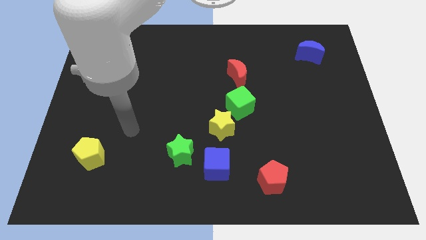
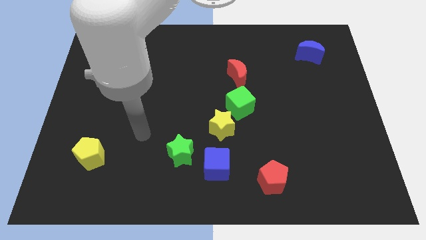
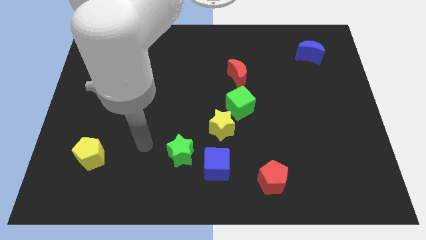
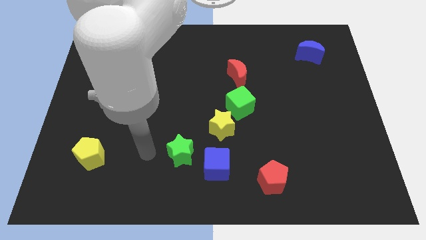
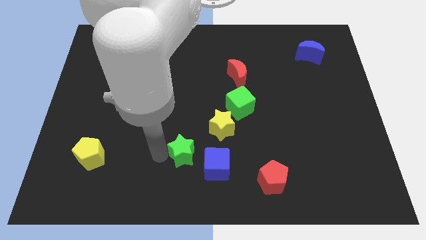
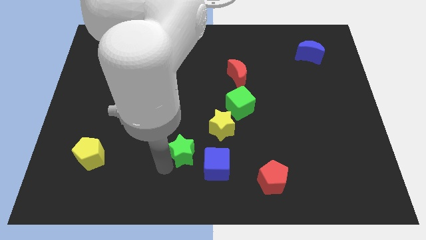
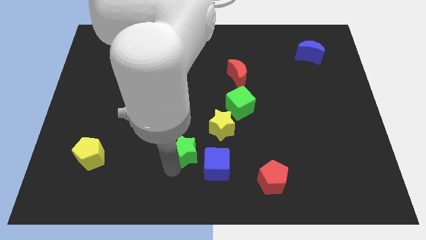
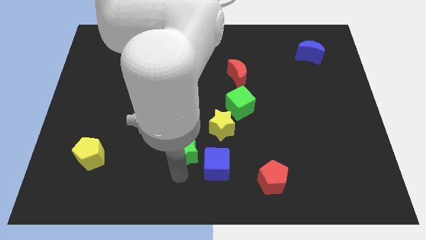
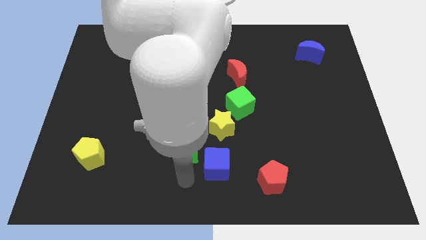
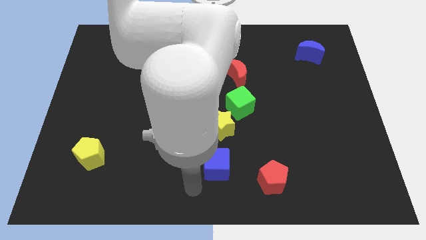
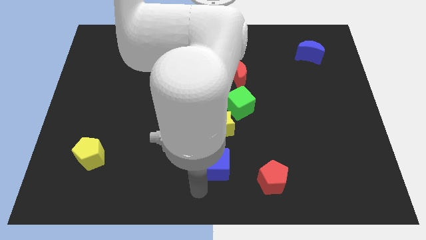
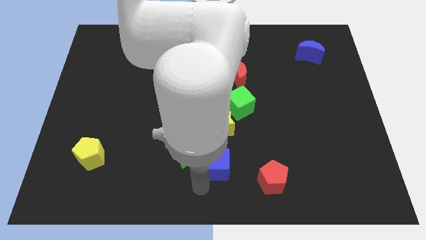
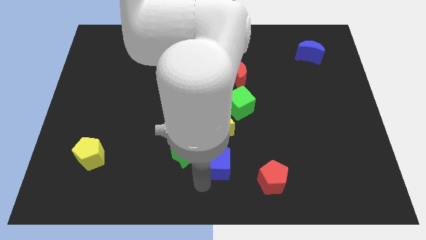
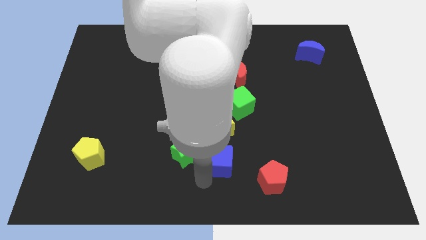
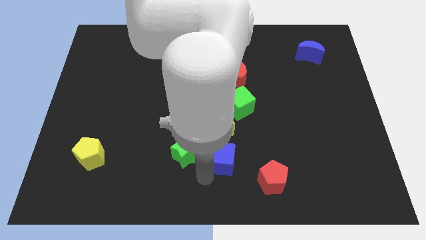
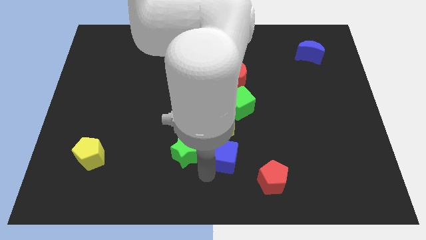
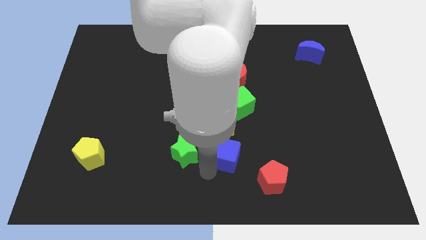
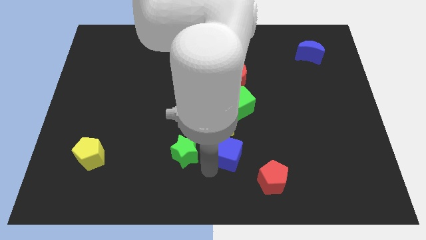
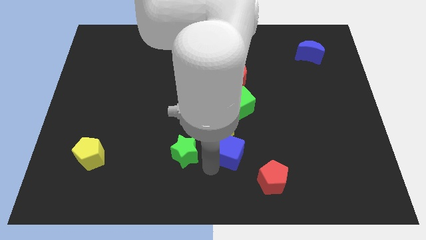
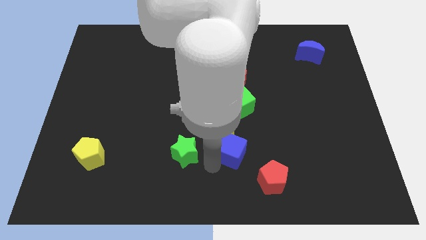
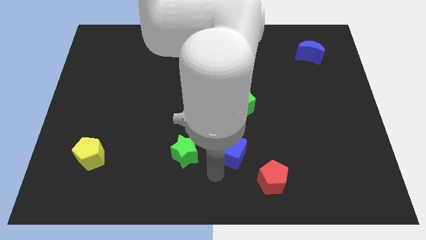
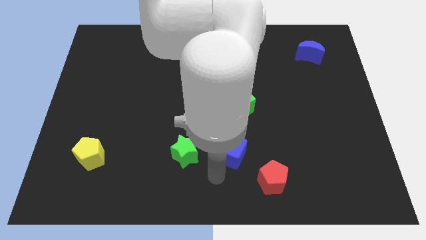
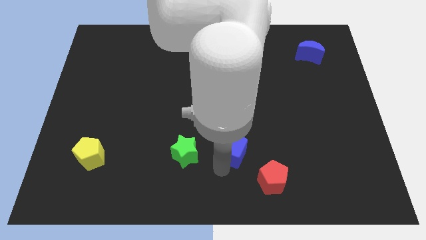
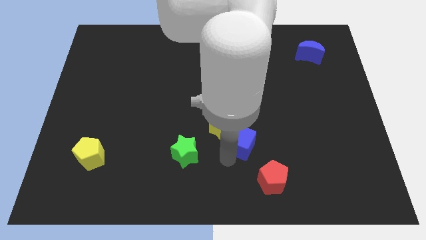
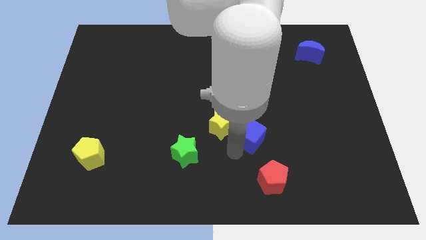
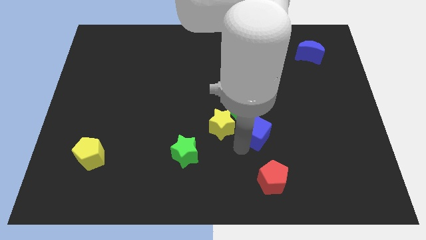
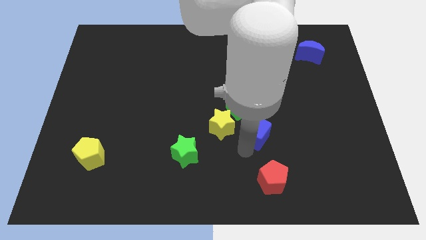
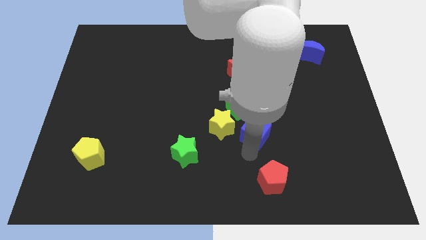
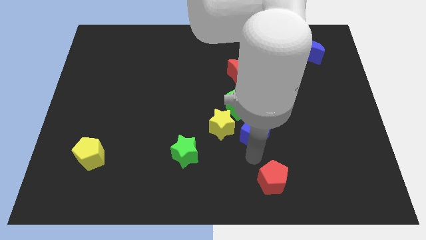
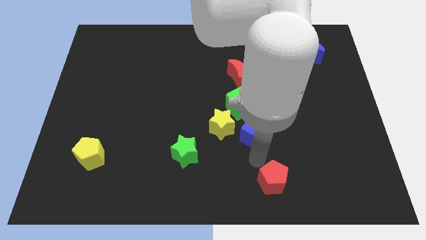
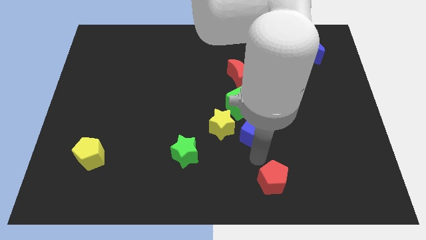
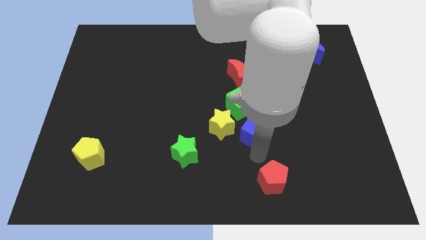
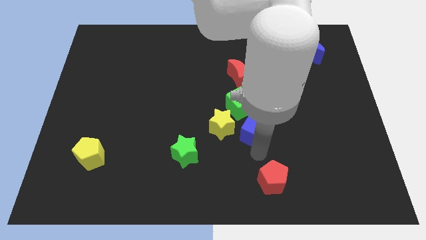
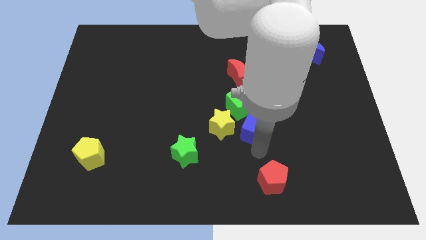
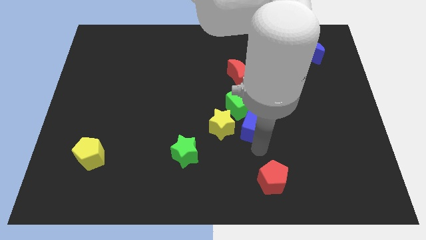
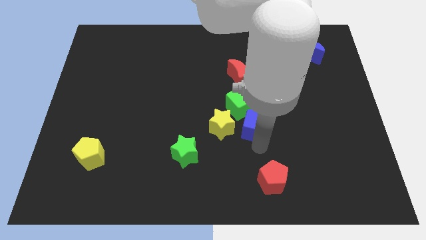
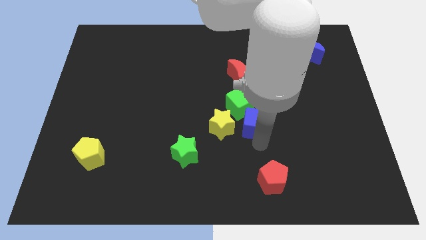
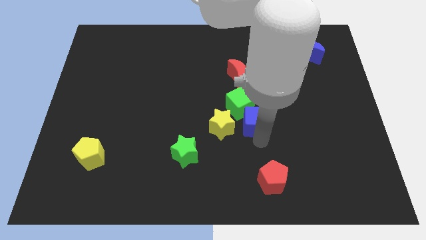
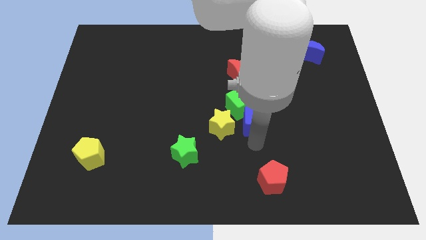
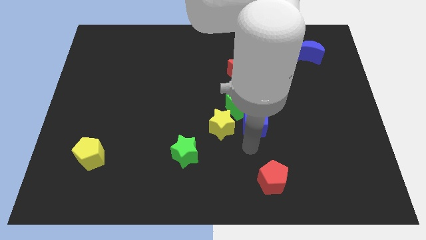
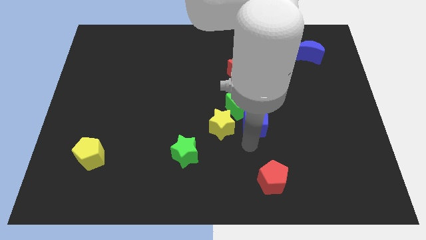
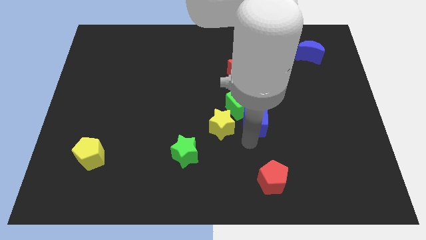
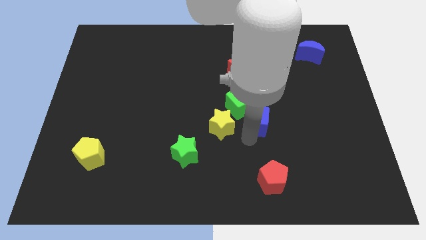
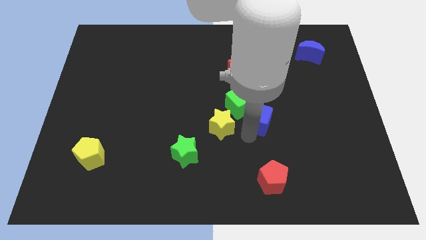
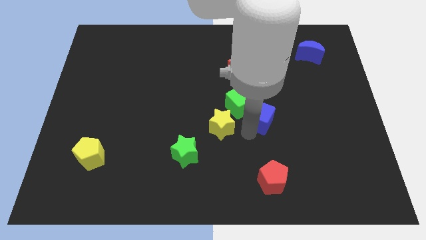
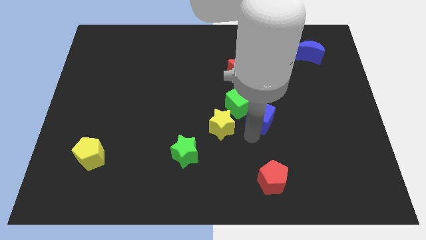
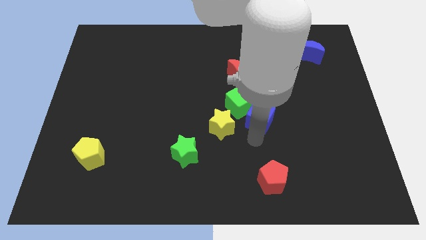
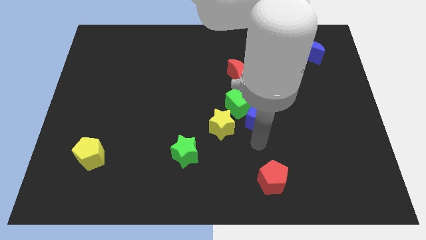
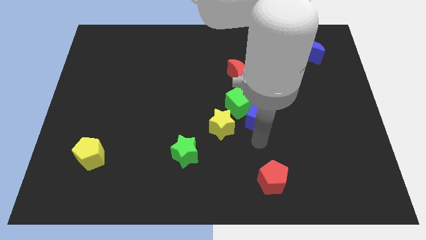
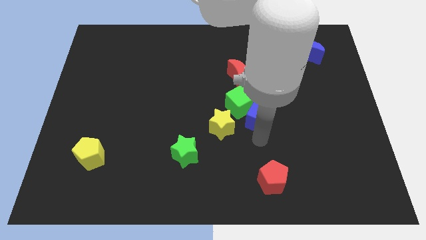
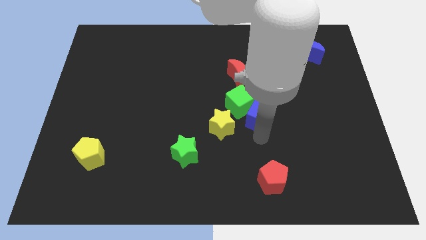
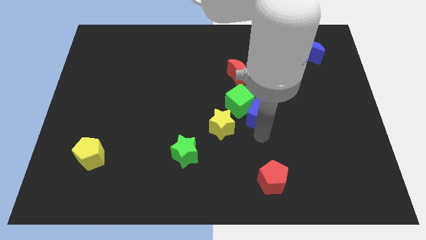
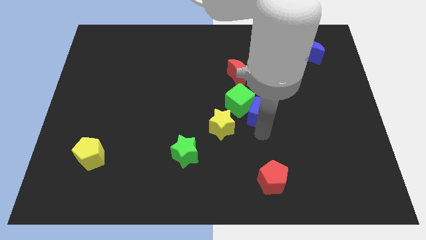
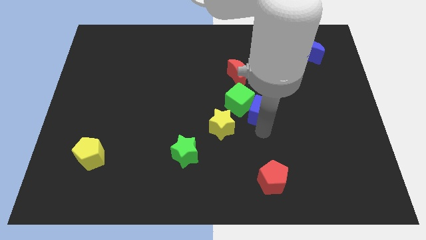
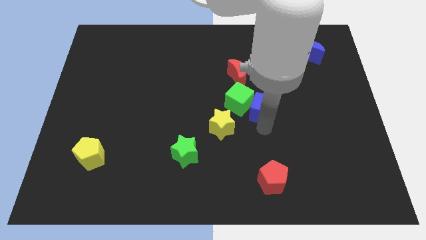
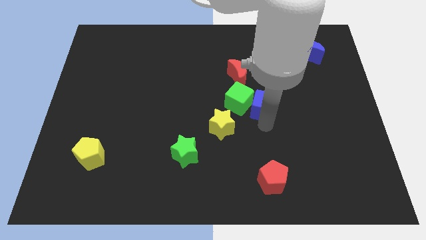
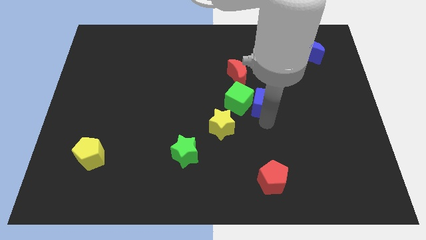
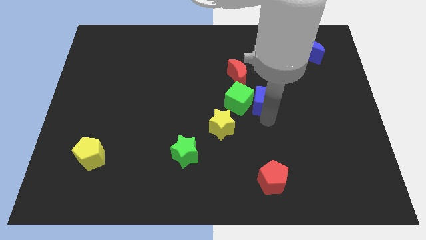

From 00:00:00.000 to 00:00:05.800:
put the blue cube to the top right side of the green cube
